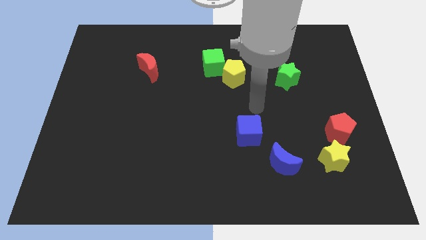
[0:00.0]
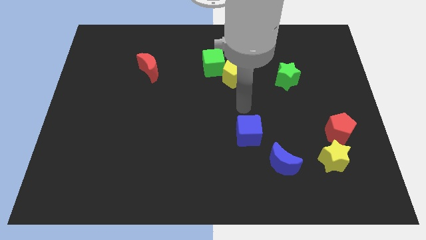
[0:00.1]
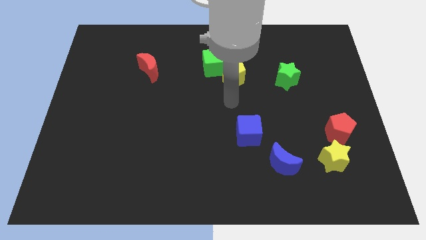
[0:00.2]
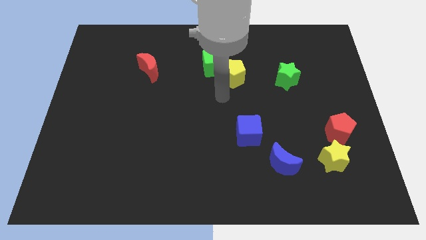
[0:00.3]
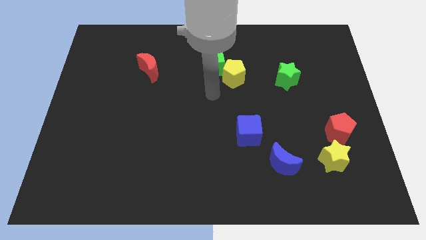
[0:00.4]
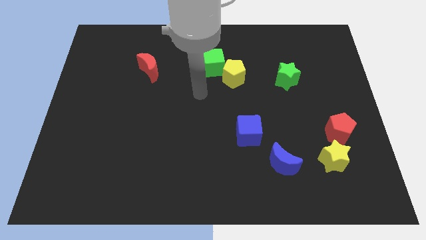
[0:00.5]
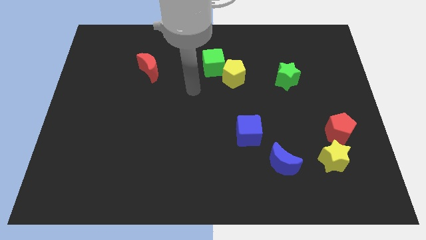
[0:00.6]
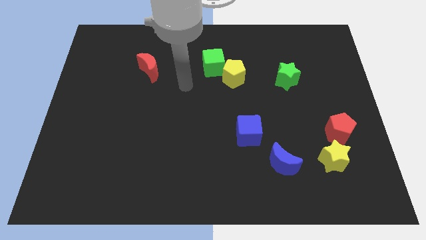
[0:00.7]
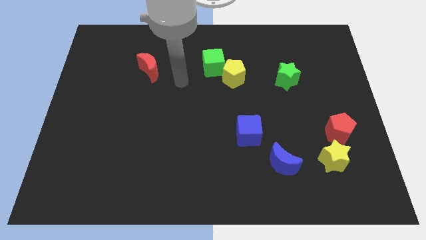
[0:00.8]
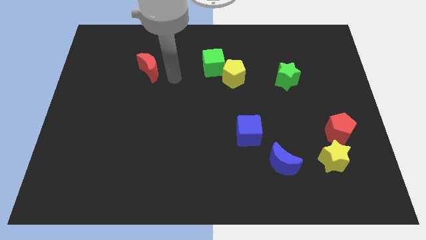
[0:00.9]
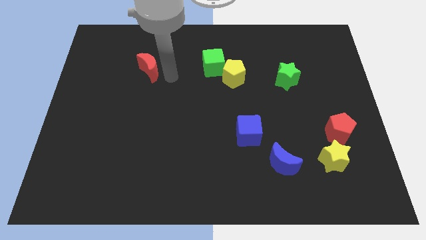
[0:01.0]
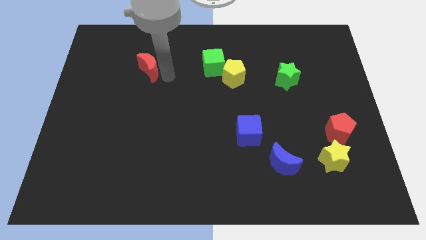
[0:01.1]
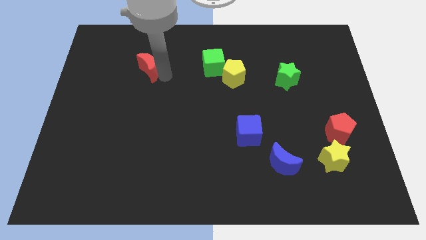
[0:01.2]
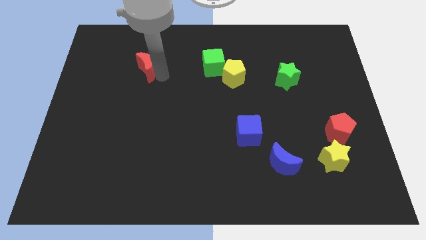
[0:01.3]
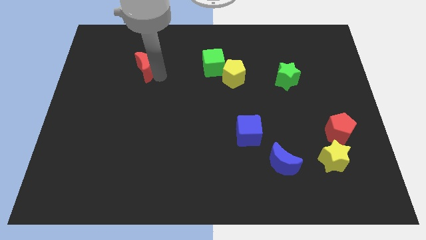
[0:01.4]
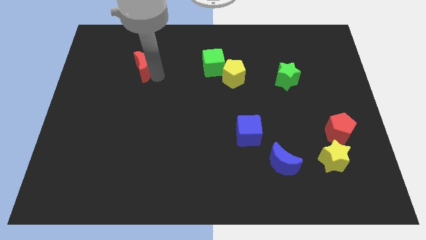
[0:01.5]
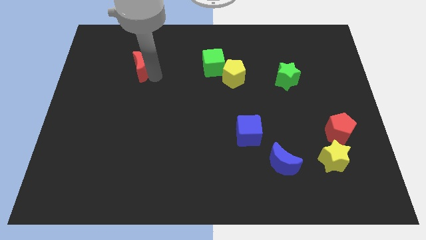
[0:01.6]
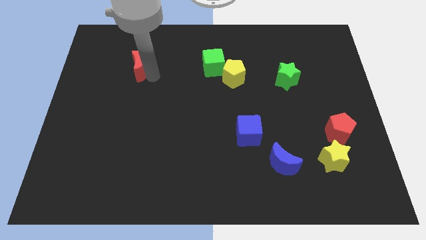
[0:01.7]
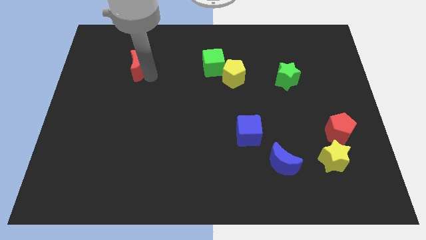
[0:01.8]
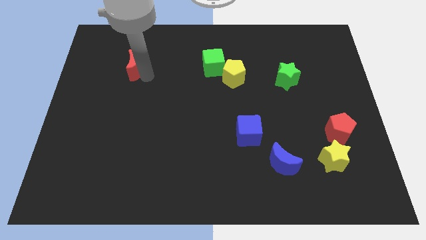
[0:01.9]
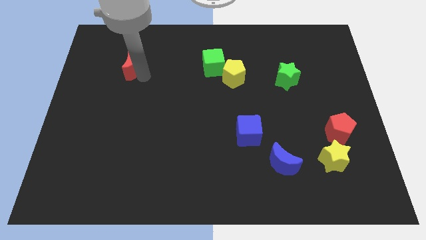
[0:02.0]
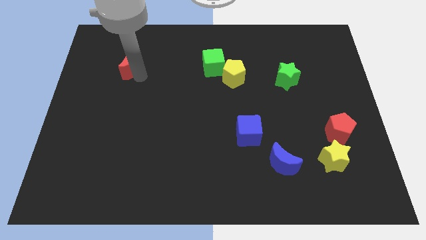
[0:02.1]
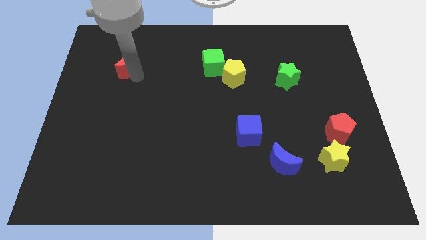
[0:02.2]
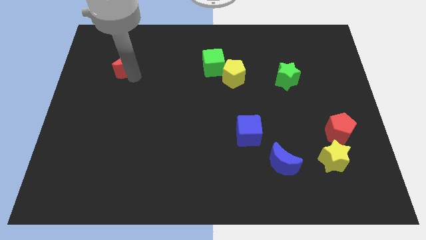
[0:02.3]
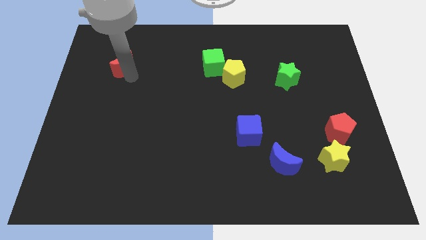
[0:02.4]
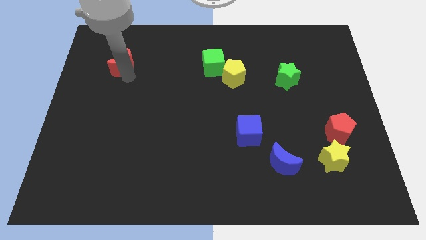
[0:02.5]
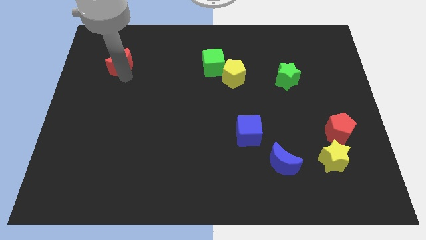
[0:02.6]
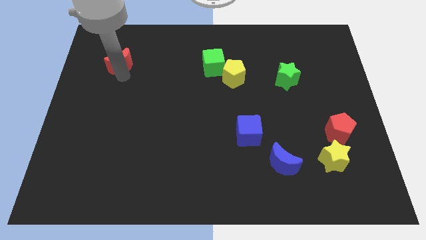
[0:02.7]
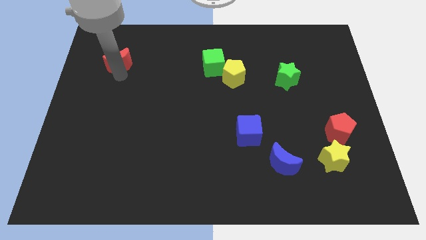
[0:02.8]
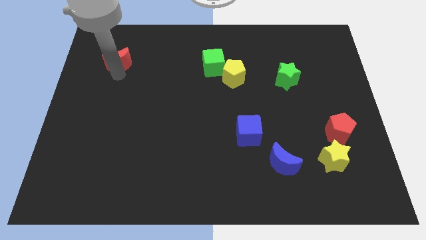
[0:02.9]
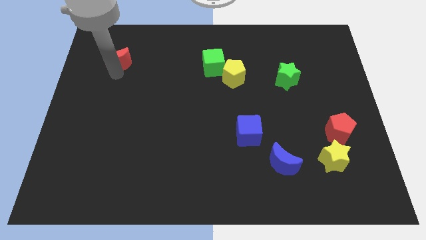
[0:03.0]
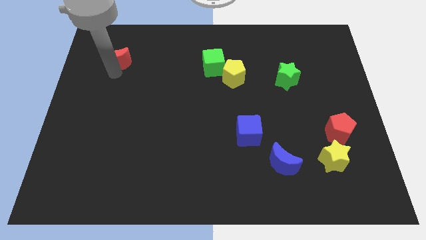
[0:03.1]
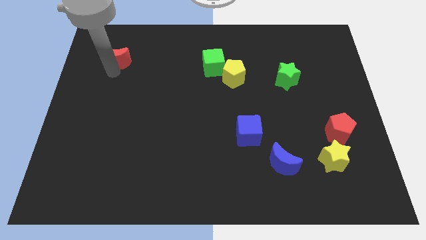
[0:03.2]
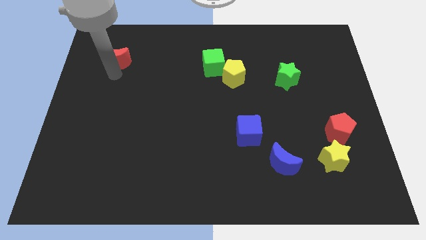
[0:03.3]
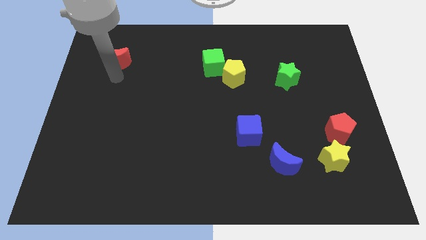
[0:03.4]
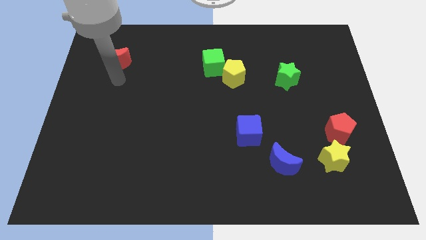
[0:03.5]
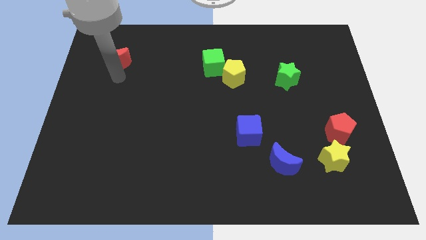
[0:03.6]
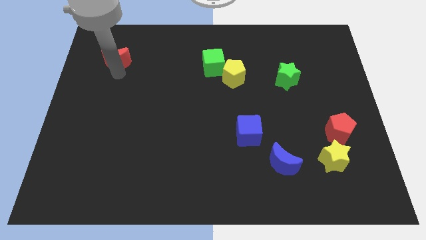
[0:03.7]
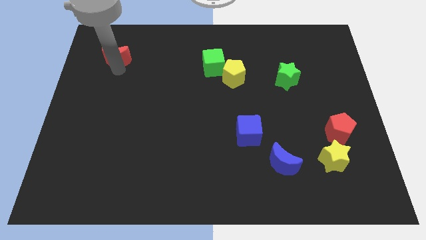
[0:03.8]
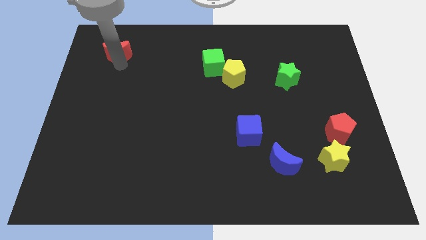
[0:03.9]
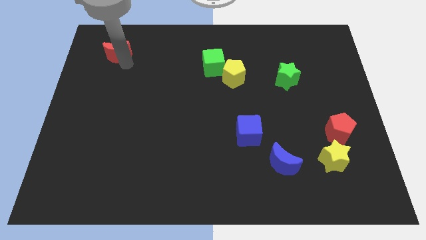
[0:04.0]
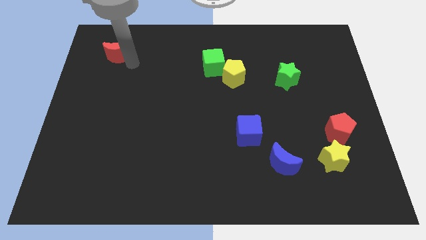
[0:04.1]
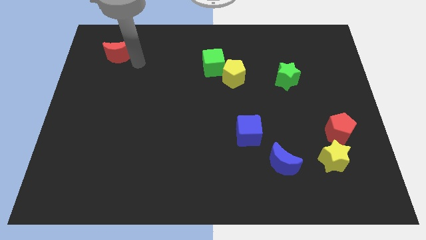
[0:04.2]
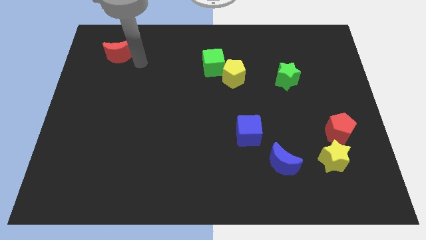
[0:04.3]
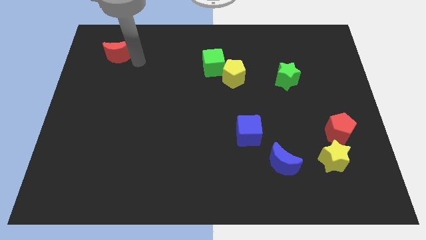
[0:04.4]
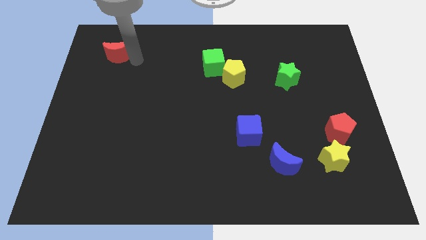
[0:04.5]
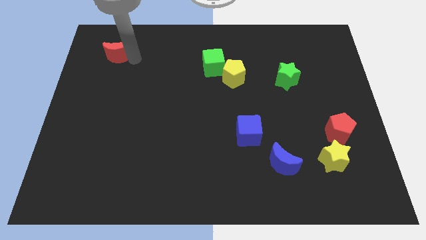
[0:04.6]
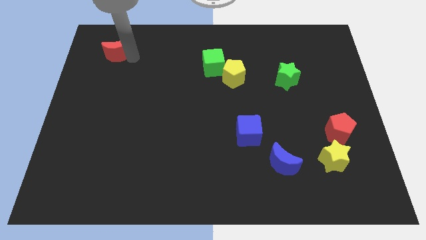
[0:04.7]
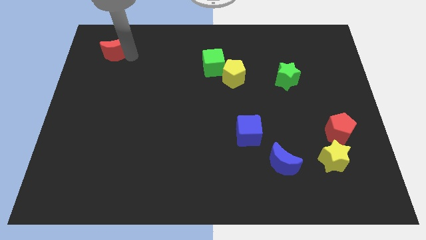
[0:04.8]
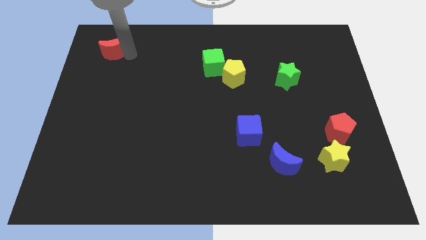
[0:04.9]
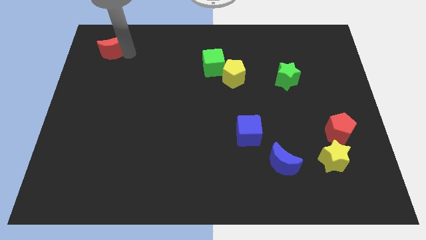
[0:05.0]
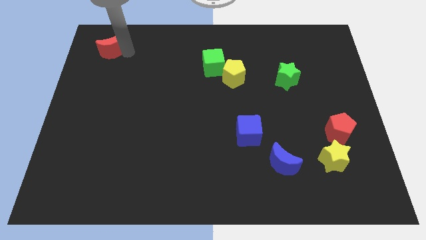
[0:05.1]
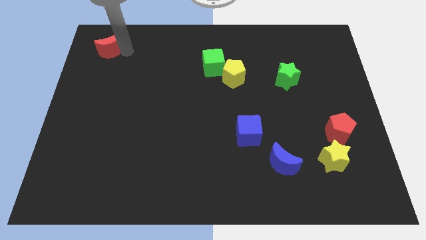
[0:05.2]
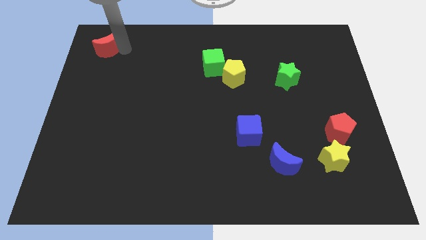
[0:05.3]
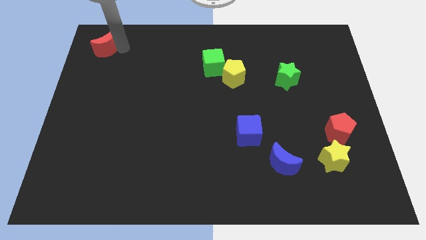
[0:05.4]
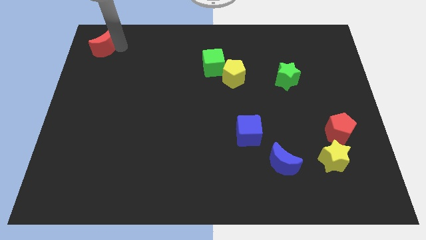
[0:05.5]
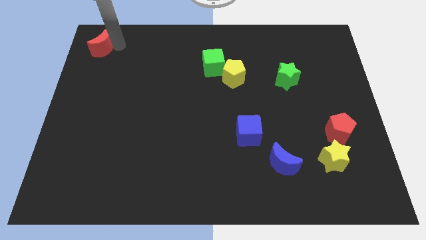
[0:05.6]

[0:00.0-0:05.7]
push the red moon to the upper left corner
